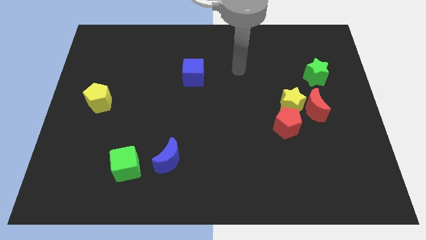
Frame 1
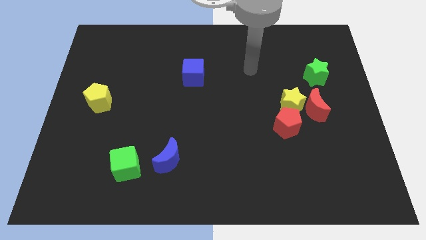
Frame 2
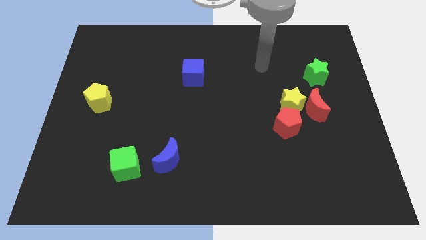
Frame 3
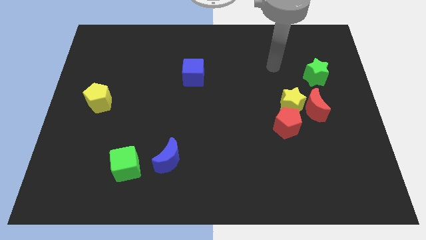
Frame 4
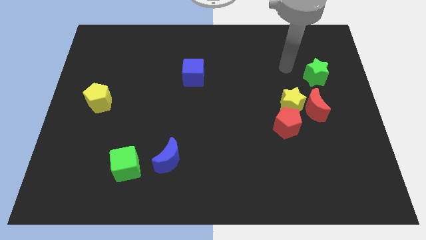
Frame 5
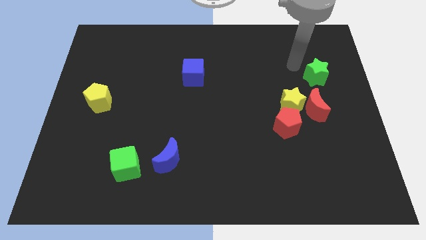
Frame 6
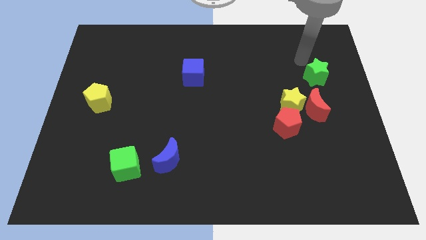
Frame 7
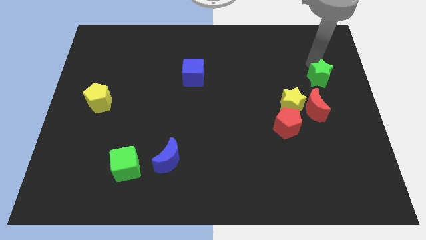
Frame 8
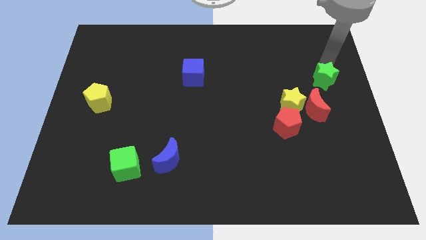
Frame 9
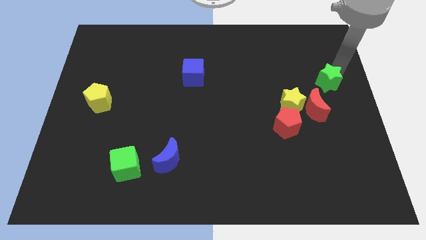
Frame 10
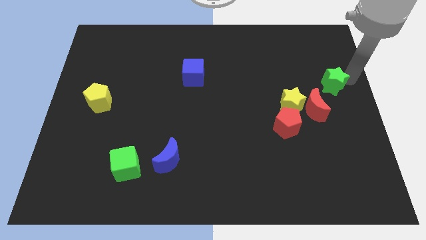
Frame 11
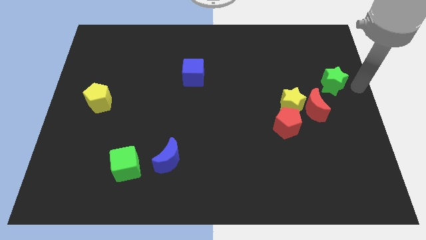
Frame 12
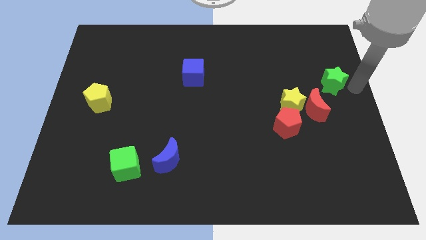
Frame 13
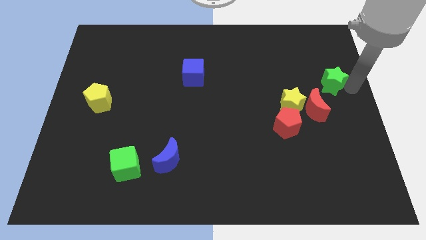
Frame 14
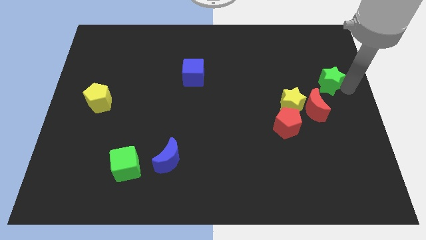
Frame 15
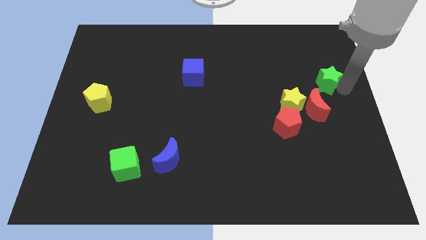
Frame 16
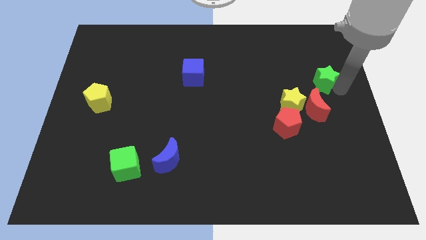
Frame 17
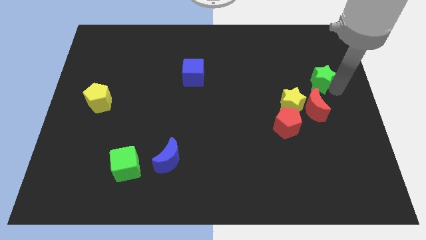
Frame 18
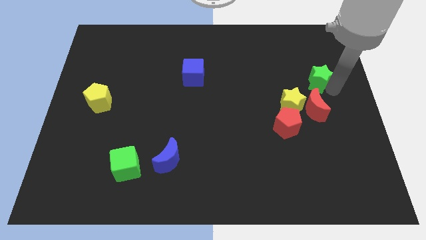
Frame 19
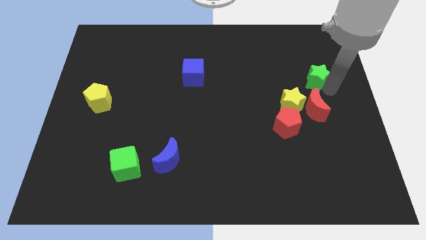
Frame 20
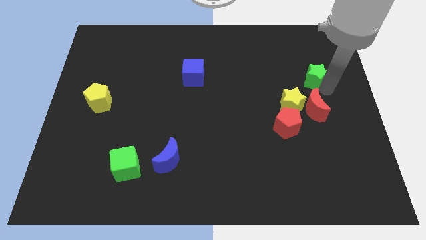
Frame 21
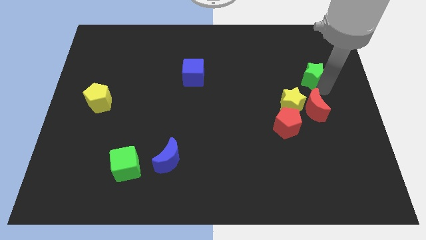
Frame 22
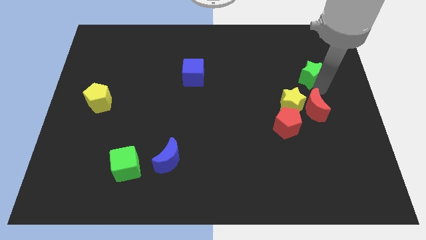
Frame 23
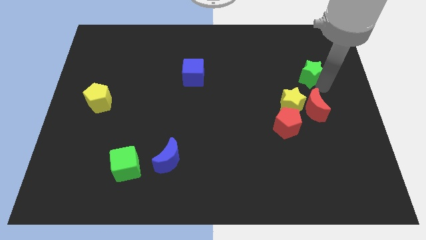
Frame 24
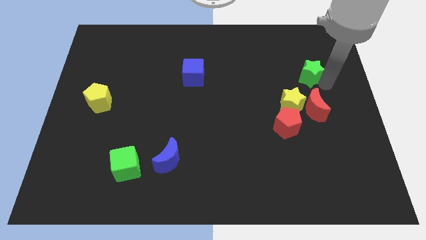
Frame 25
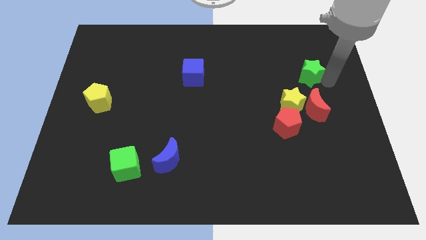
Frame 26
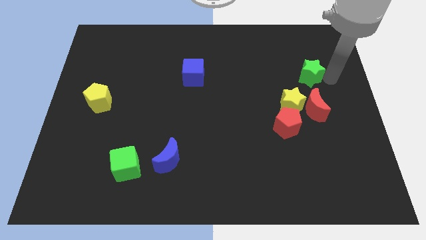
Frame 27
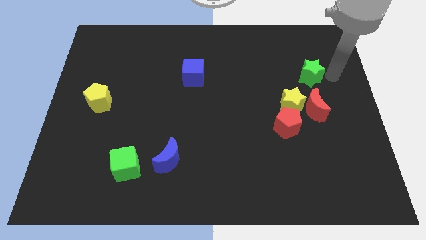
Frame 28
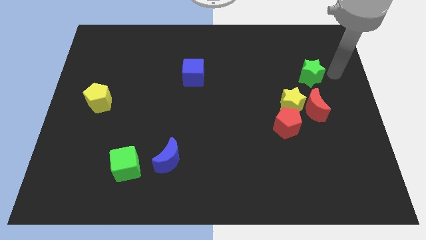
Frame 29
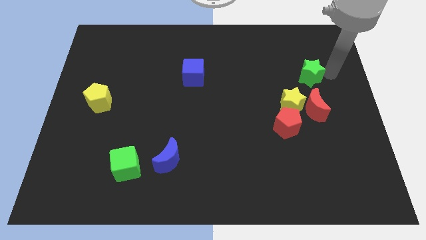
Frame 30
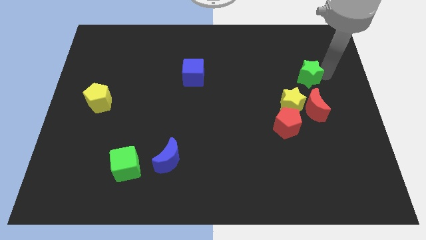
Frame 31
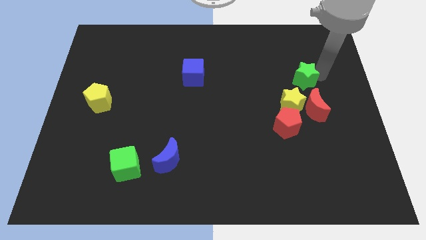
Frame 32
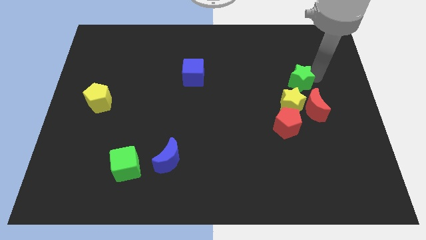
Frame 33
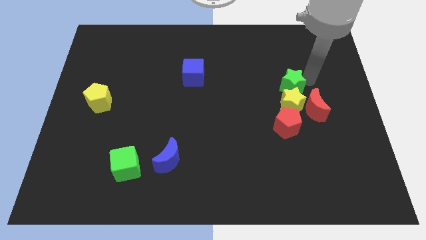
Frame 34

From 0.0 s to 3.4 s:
slightly slide the green star diagonally downwards and left

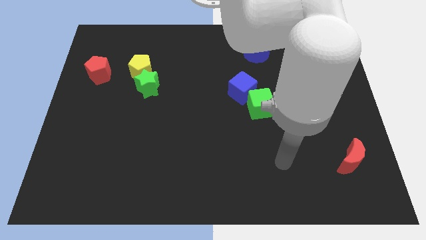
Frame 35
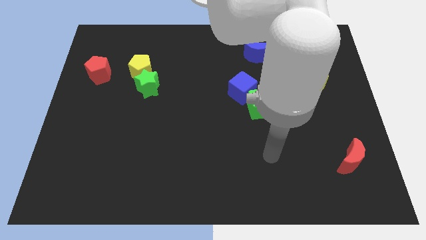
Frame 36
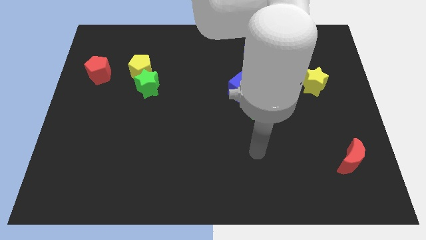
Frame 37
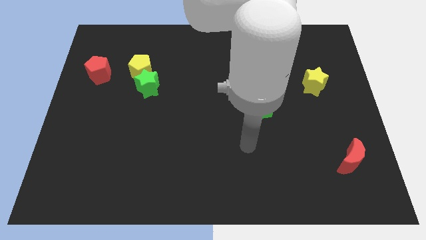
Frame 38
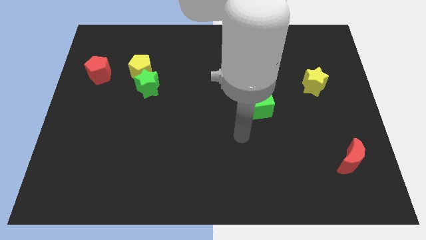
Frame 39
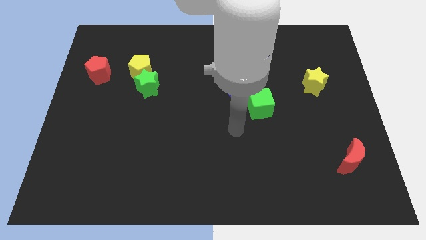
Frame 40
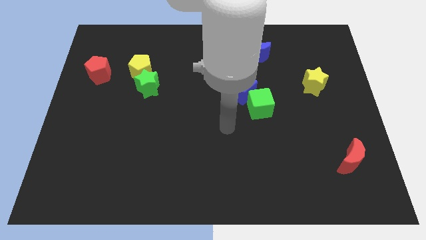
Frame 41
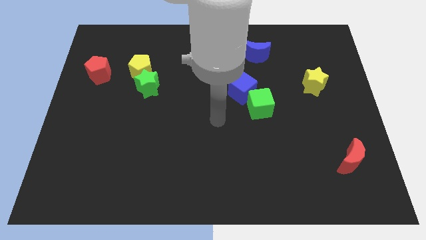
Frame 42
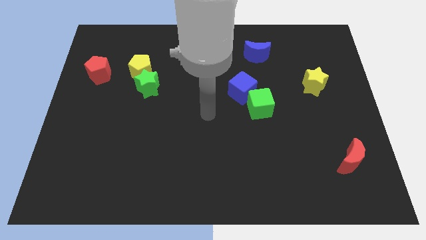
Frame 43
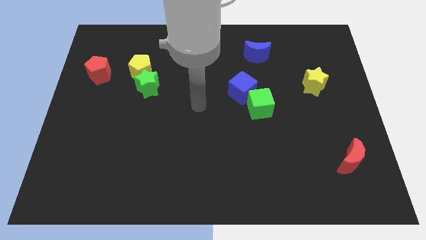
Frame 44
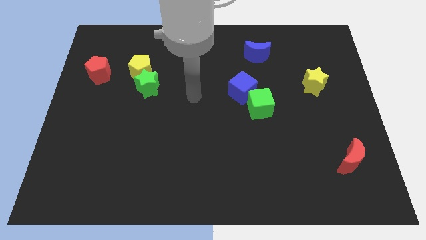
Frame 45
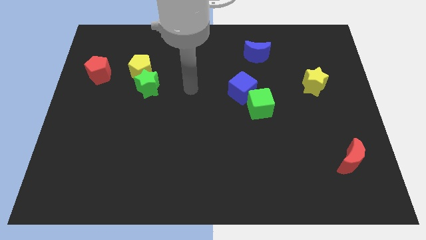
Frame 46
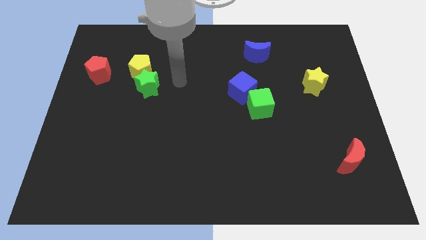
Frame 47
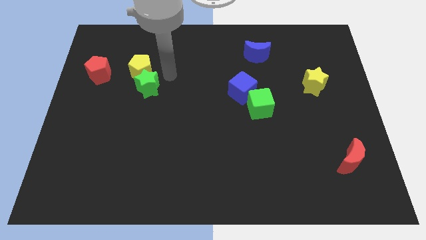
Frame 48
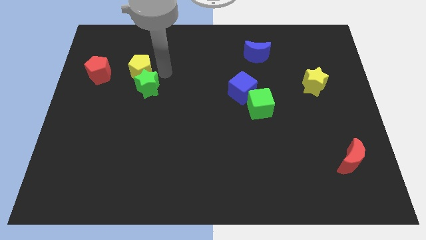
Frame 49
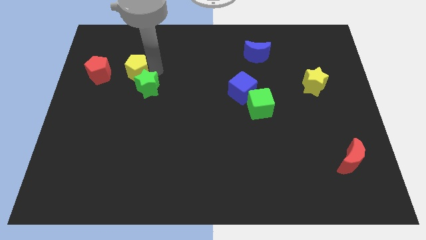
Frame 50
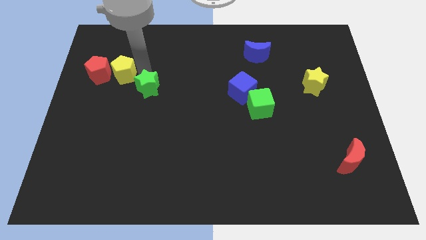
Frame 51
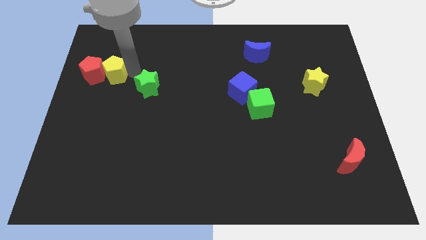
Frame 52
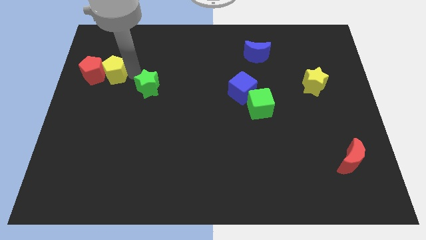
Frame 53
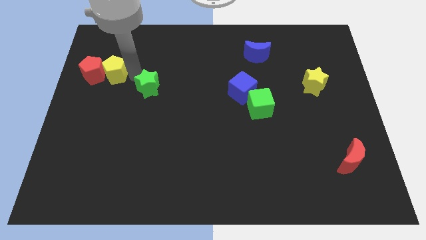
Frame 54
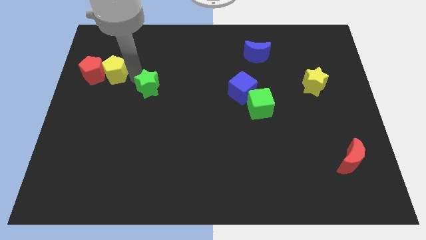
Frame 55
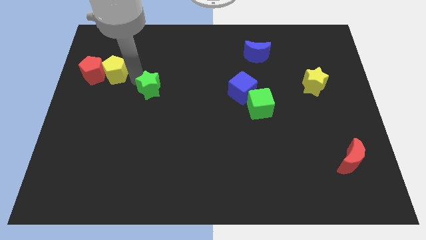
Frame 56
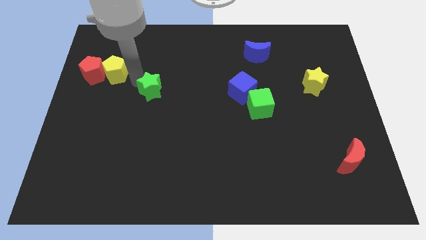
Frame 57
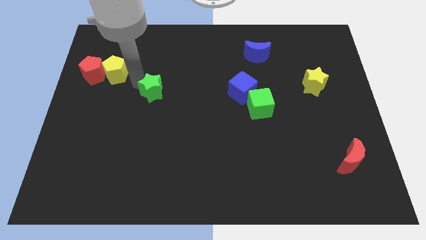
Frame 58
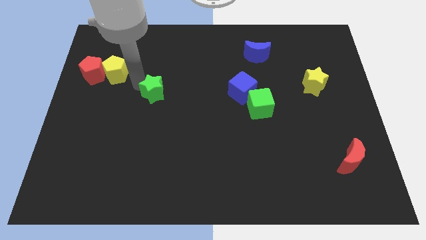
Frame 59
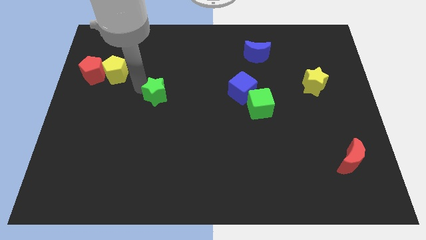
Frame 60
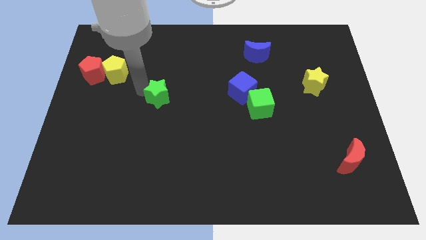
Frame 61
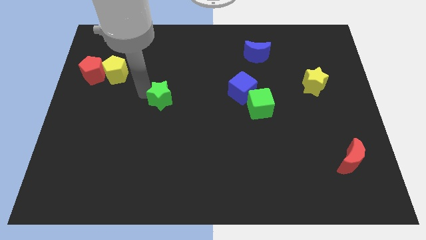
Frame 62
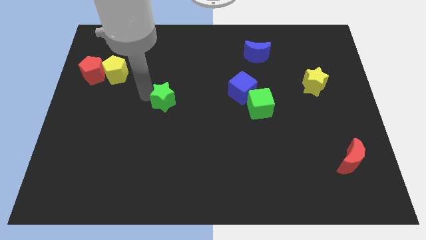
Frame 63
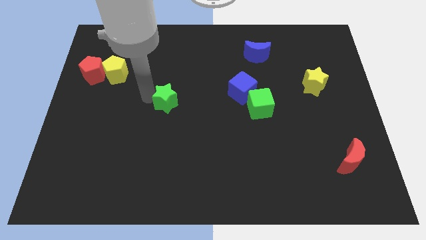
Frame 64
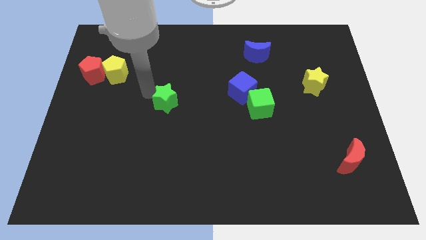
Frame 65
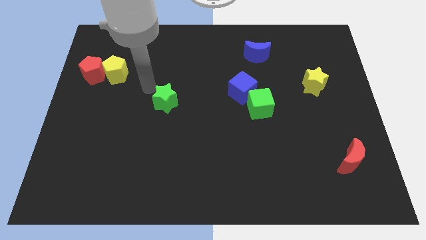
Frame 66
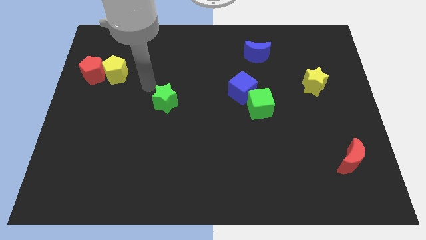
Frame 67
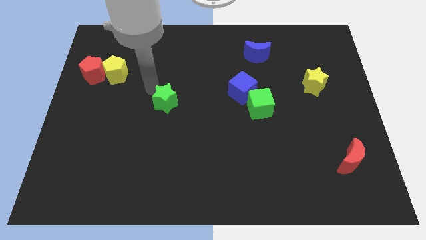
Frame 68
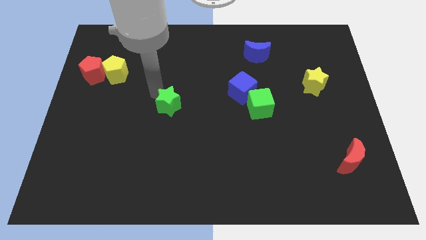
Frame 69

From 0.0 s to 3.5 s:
move the green star down and then right a little

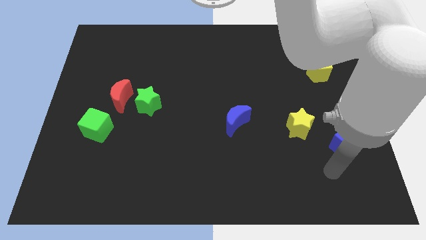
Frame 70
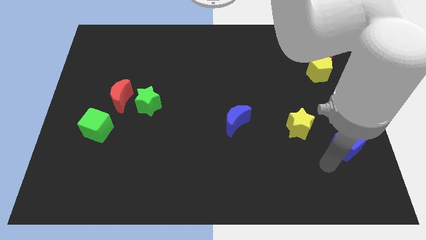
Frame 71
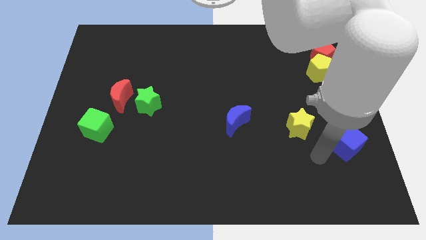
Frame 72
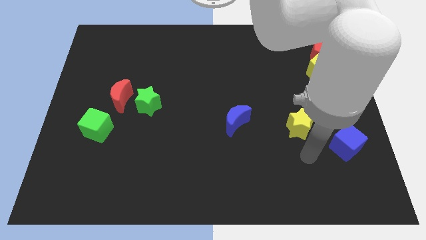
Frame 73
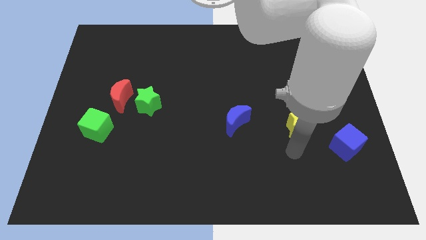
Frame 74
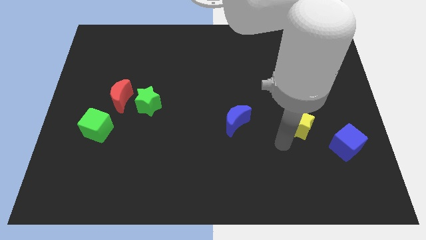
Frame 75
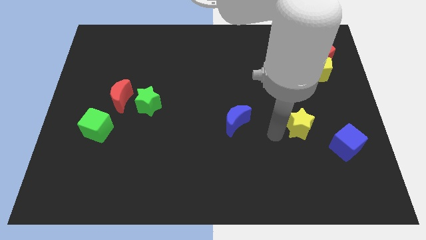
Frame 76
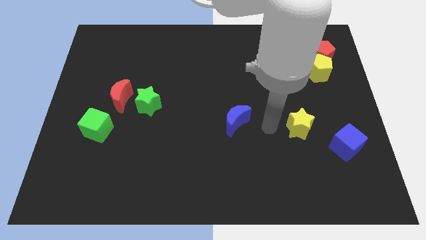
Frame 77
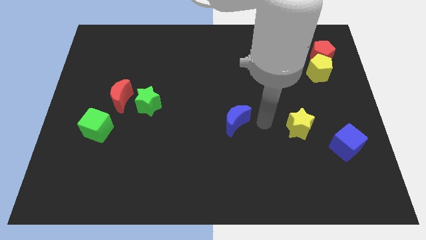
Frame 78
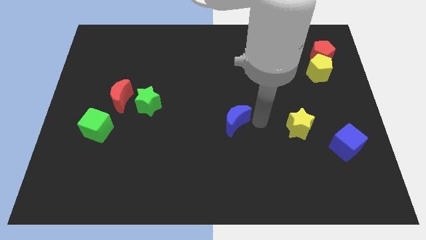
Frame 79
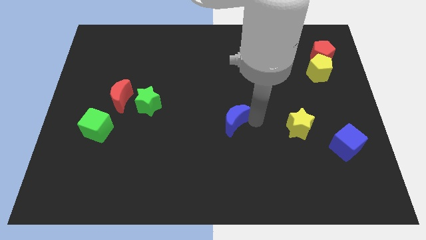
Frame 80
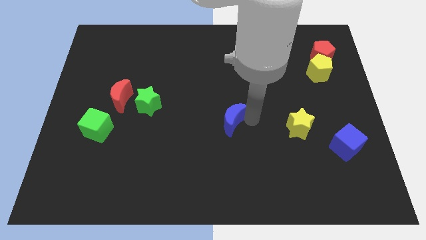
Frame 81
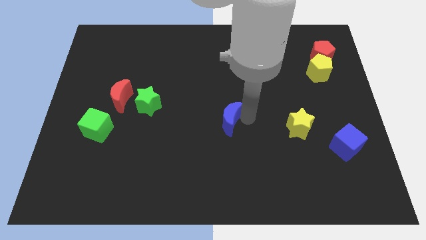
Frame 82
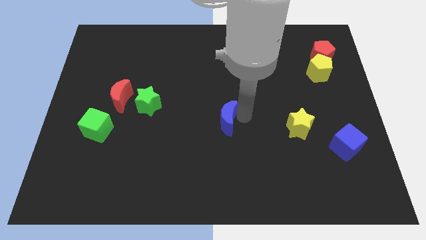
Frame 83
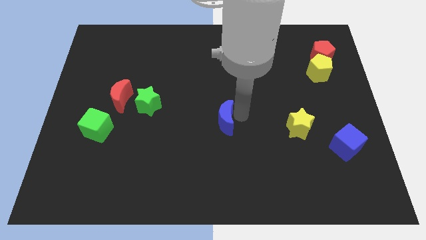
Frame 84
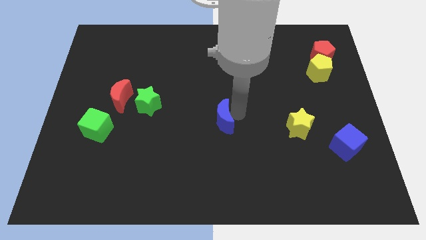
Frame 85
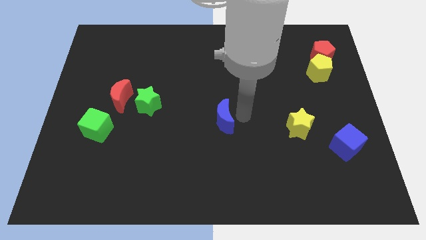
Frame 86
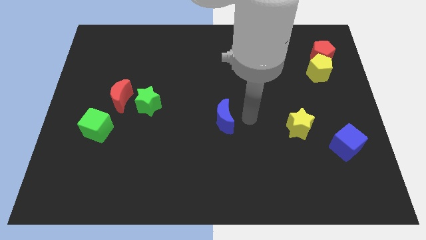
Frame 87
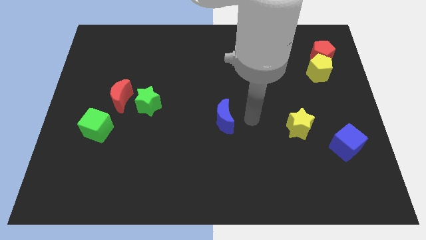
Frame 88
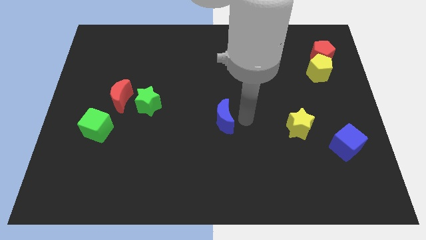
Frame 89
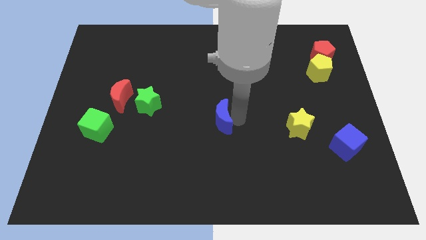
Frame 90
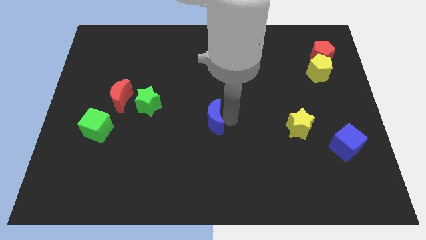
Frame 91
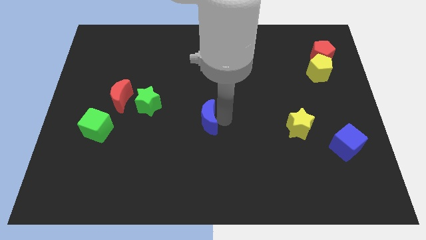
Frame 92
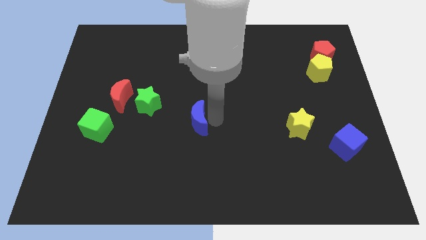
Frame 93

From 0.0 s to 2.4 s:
push the blue moon to the left slightly
